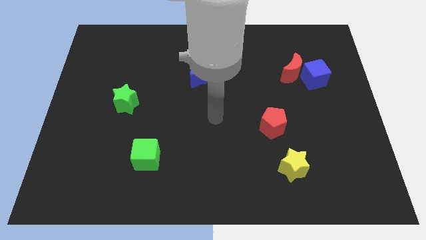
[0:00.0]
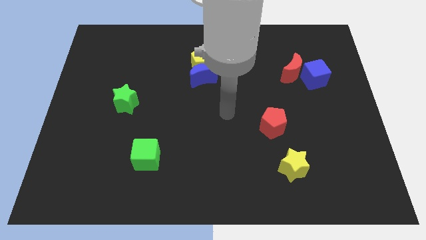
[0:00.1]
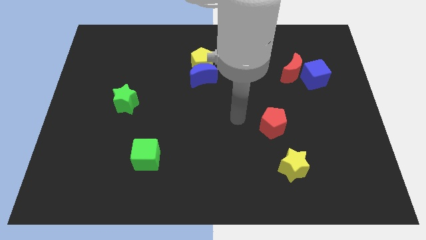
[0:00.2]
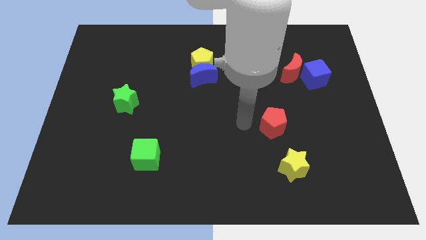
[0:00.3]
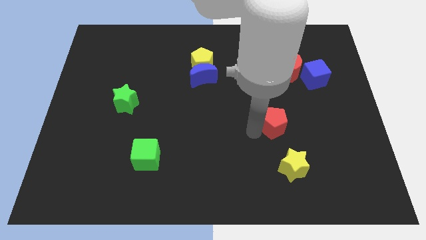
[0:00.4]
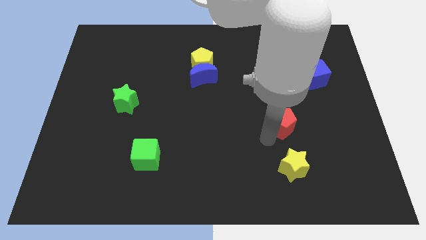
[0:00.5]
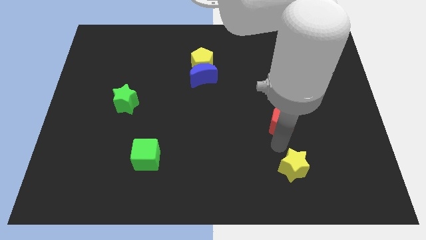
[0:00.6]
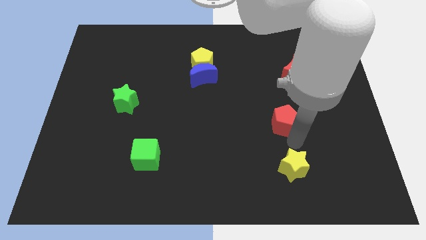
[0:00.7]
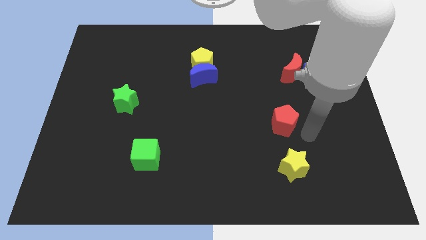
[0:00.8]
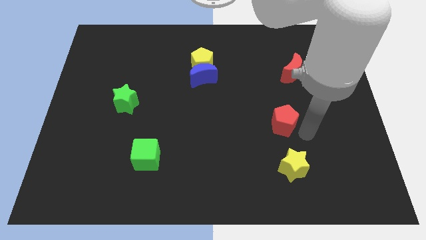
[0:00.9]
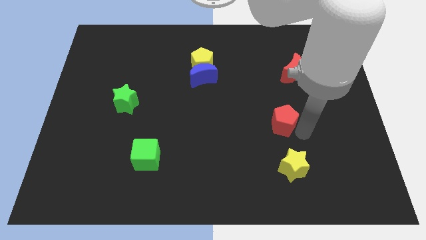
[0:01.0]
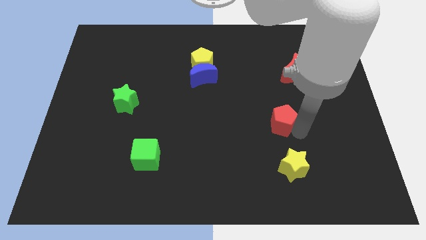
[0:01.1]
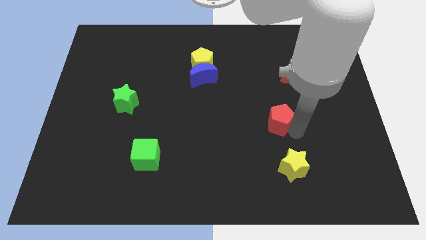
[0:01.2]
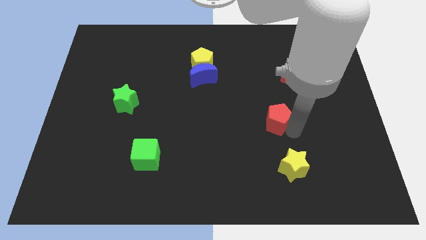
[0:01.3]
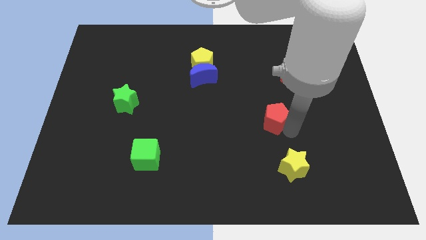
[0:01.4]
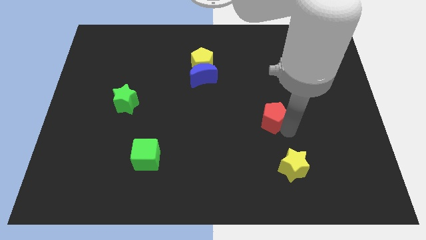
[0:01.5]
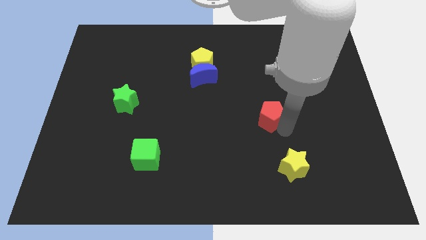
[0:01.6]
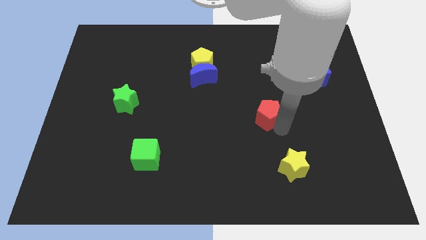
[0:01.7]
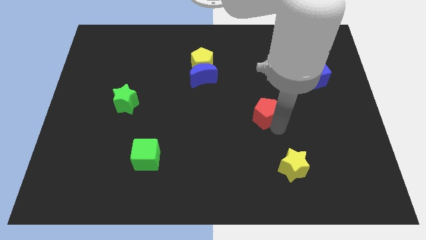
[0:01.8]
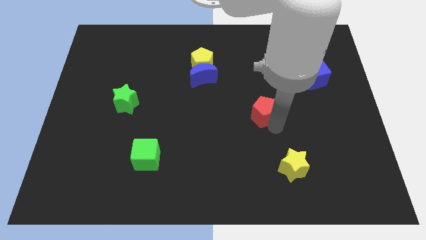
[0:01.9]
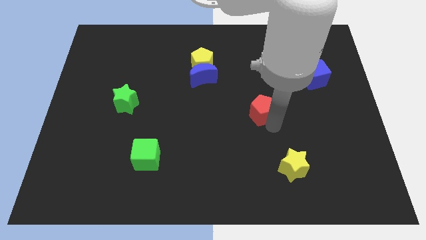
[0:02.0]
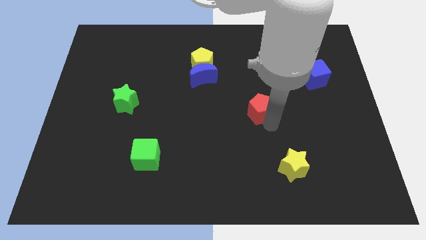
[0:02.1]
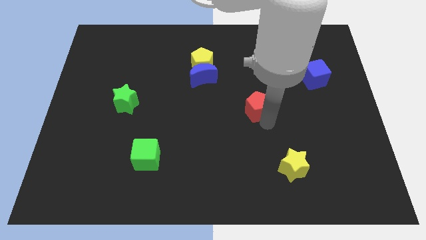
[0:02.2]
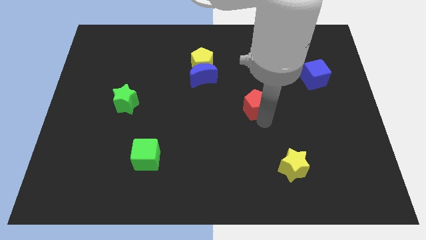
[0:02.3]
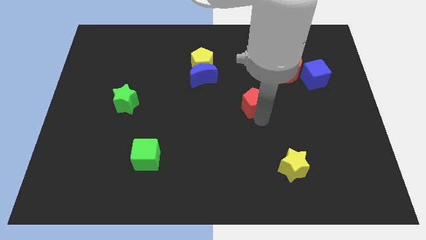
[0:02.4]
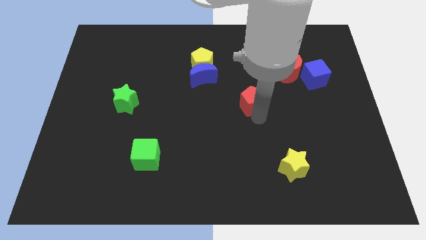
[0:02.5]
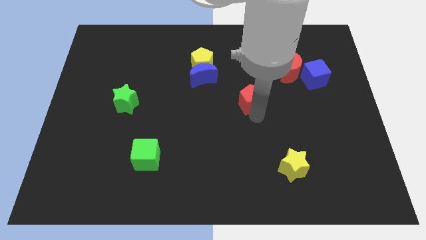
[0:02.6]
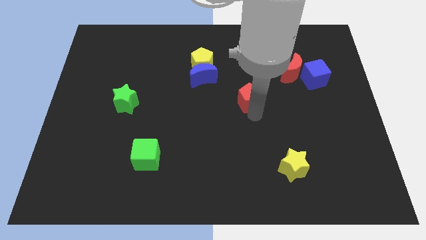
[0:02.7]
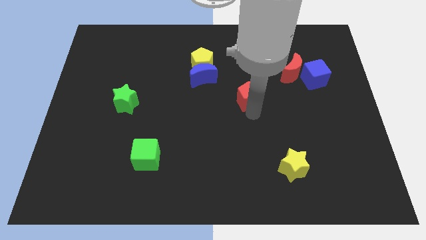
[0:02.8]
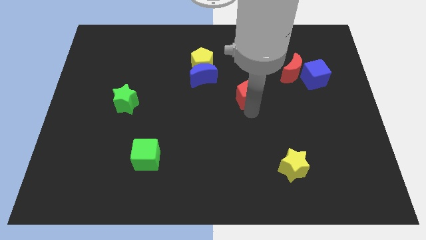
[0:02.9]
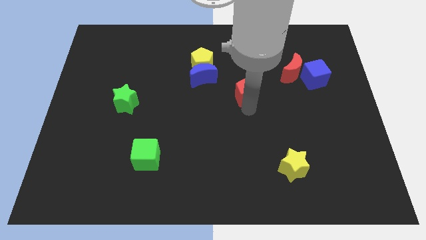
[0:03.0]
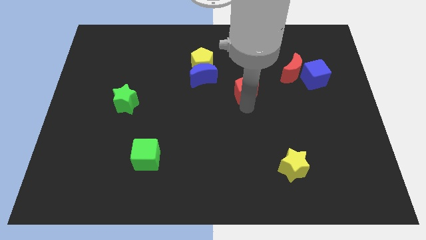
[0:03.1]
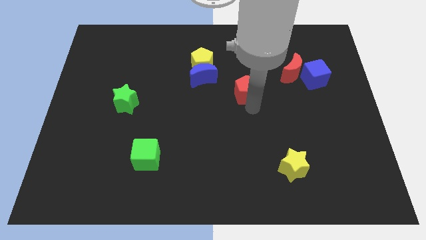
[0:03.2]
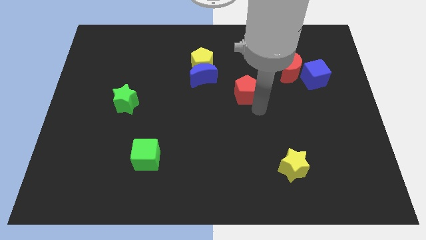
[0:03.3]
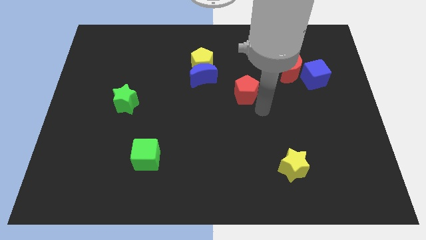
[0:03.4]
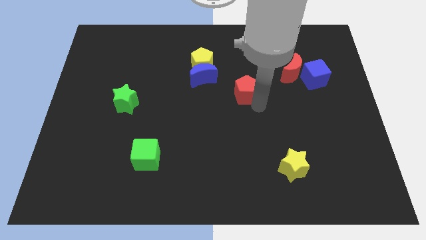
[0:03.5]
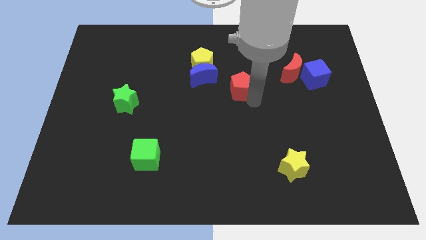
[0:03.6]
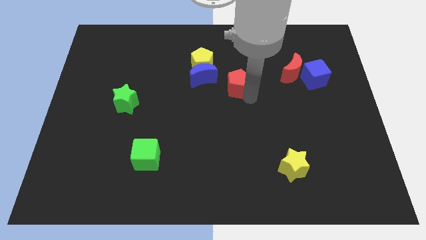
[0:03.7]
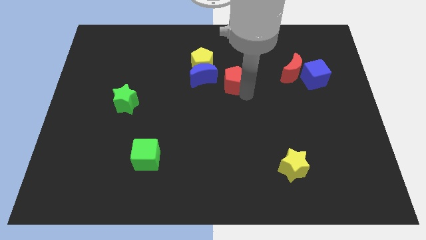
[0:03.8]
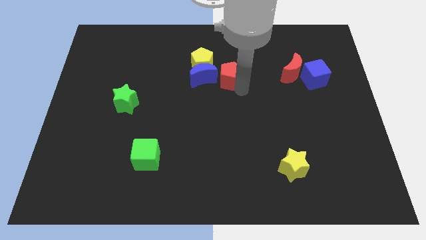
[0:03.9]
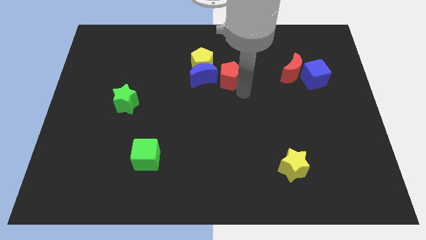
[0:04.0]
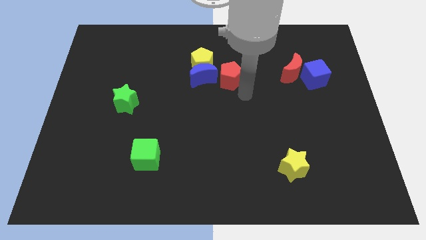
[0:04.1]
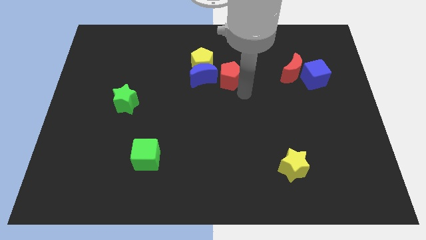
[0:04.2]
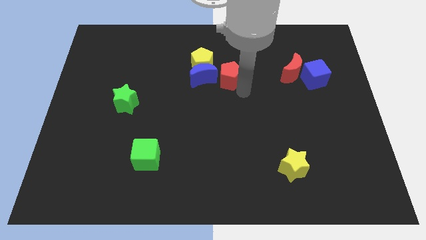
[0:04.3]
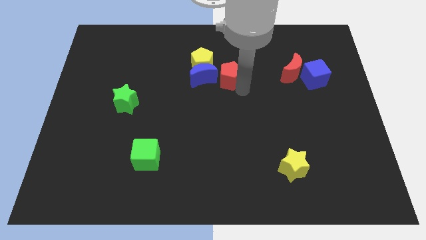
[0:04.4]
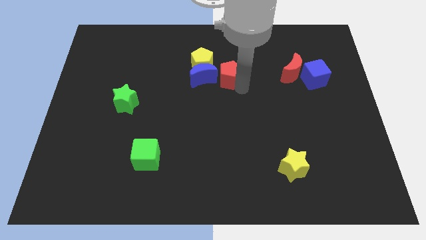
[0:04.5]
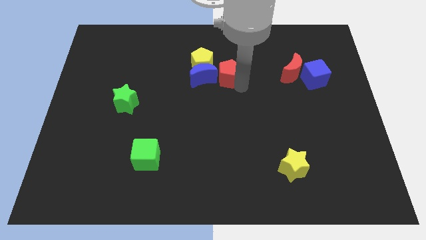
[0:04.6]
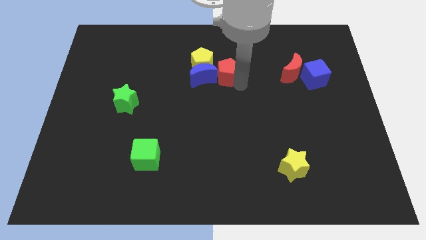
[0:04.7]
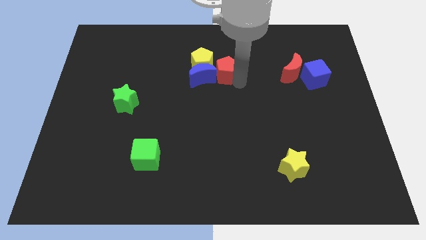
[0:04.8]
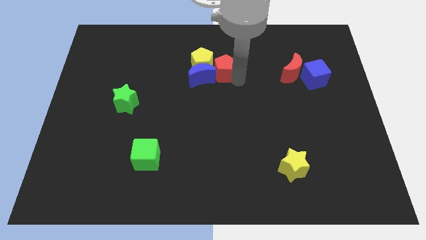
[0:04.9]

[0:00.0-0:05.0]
move the red pentagon to the yellow pentagon
